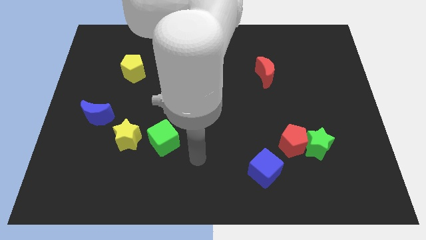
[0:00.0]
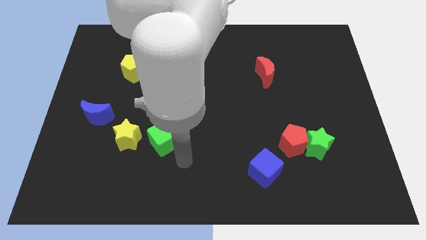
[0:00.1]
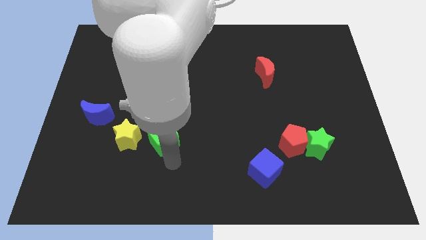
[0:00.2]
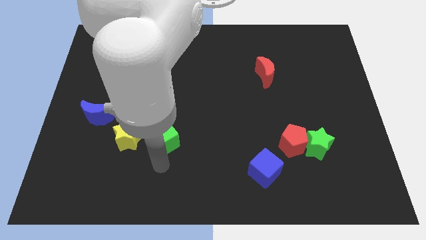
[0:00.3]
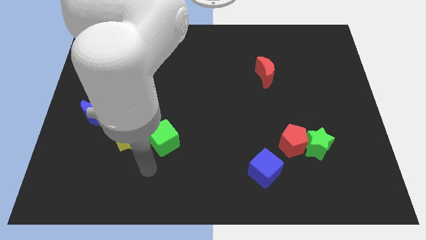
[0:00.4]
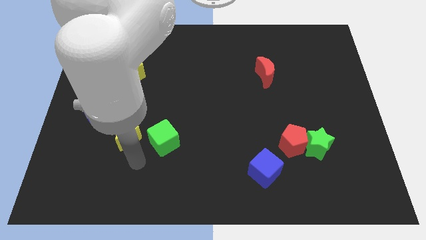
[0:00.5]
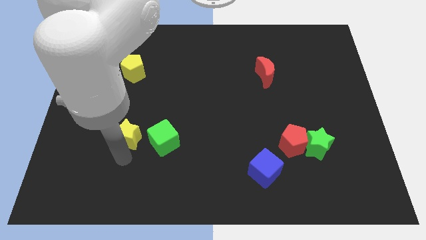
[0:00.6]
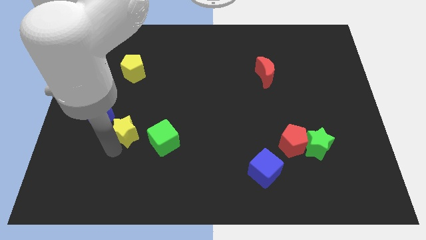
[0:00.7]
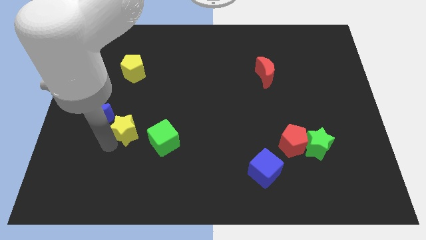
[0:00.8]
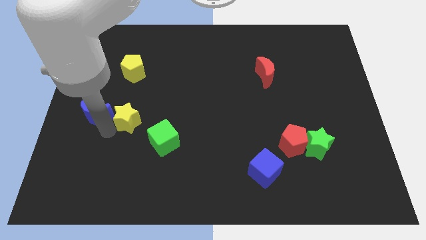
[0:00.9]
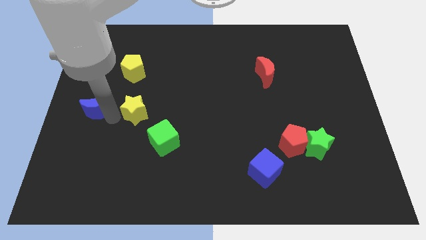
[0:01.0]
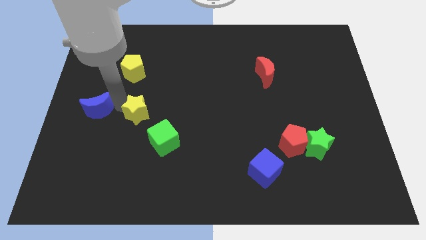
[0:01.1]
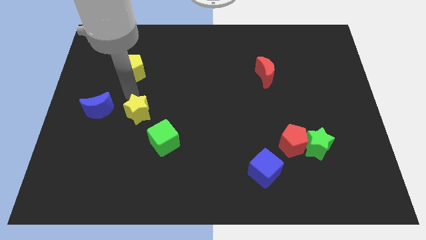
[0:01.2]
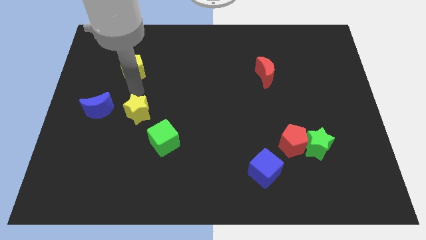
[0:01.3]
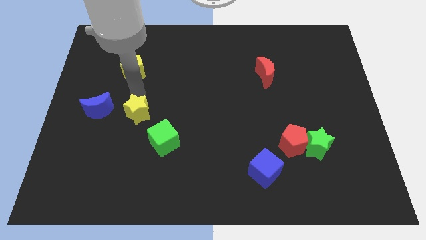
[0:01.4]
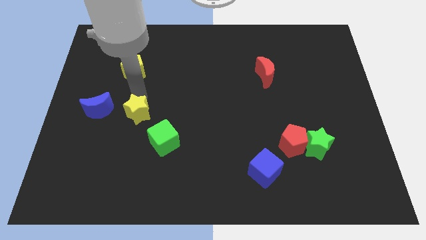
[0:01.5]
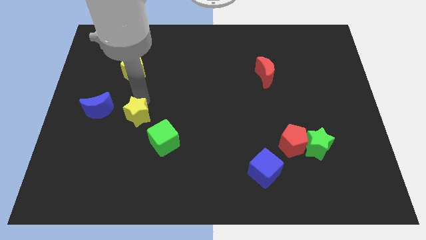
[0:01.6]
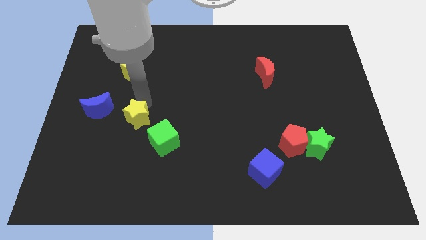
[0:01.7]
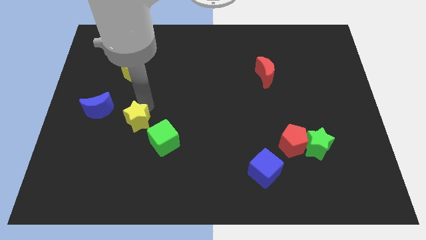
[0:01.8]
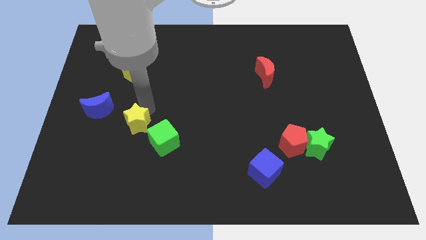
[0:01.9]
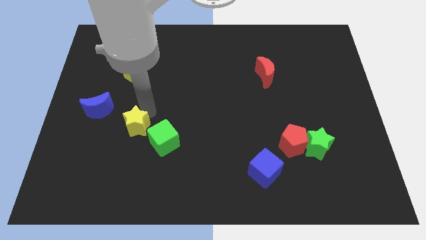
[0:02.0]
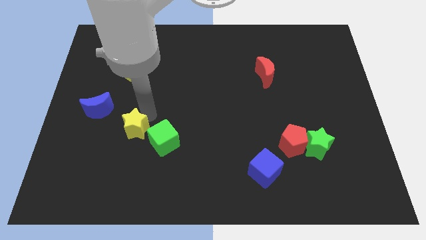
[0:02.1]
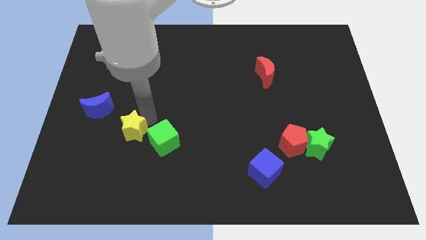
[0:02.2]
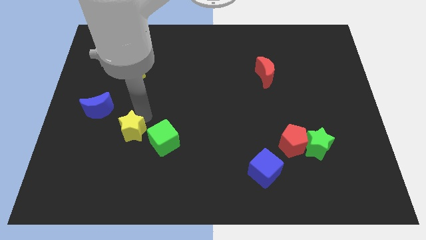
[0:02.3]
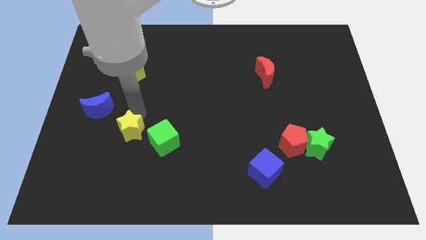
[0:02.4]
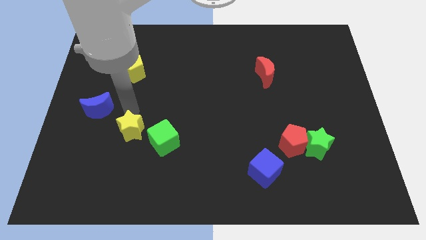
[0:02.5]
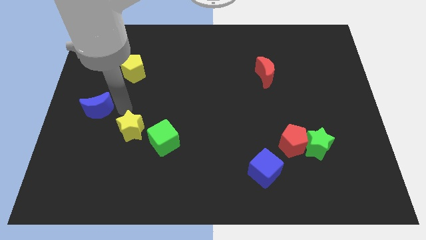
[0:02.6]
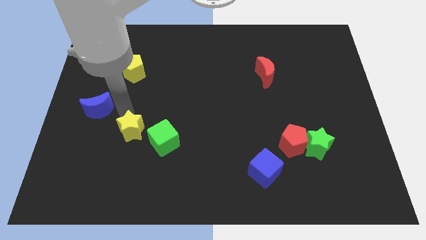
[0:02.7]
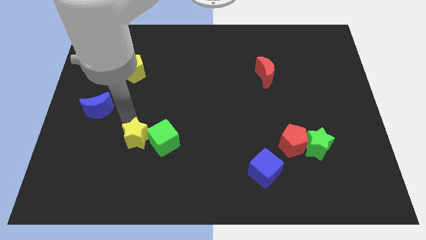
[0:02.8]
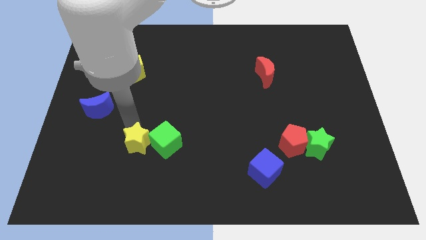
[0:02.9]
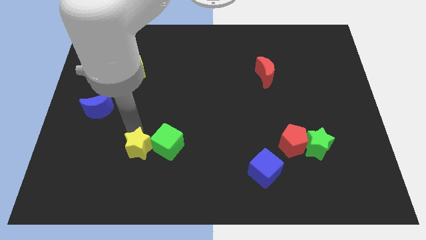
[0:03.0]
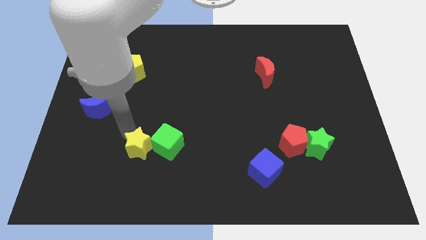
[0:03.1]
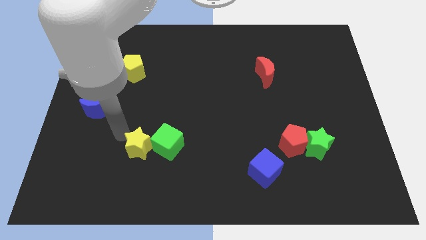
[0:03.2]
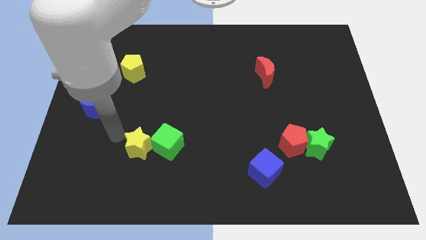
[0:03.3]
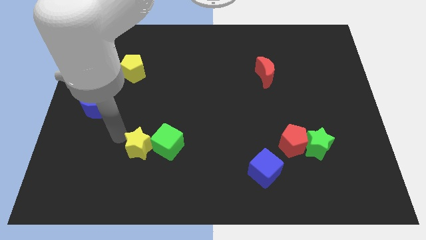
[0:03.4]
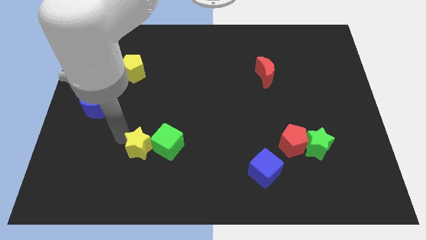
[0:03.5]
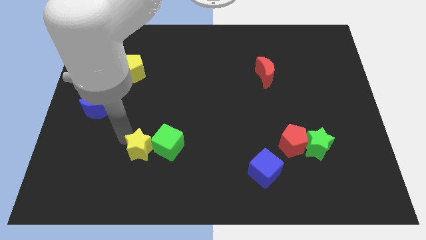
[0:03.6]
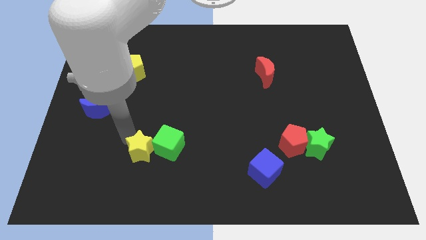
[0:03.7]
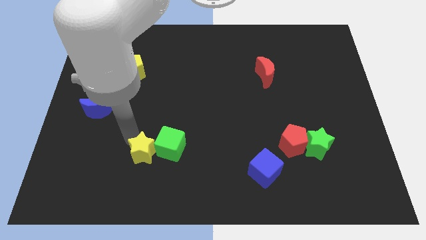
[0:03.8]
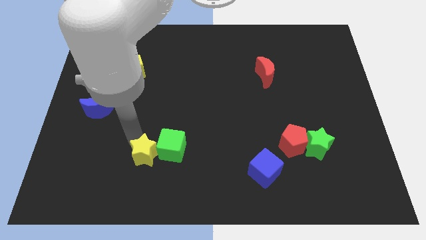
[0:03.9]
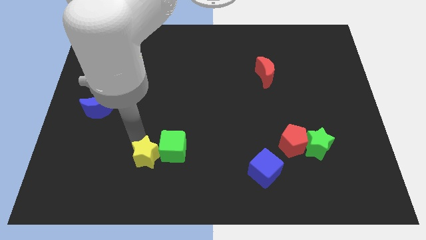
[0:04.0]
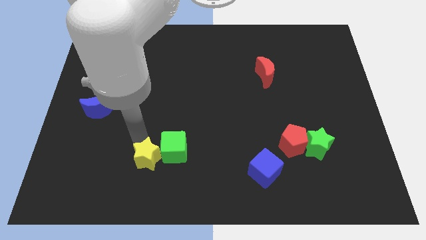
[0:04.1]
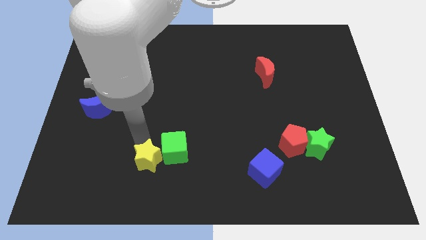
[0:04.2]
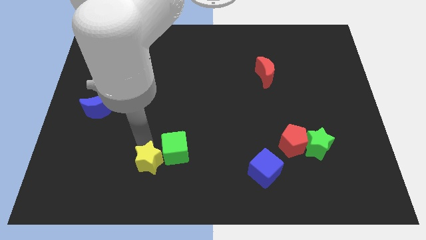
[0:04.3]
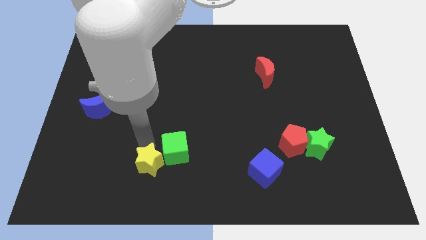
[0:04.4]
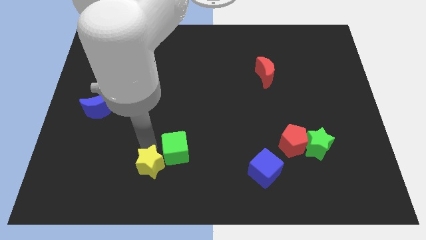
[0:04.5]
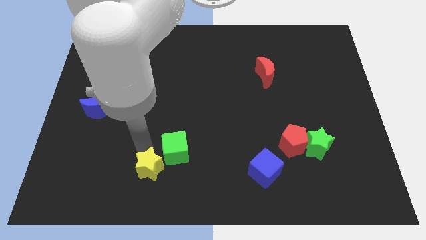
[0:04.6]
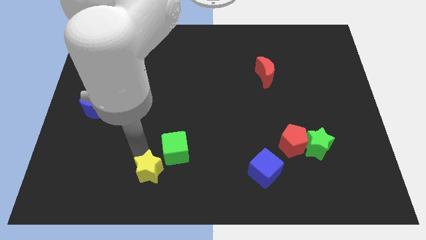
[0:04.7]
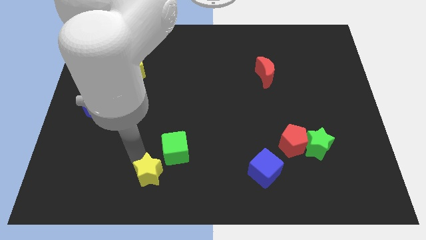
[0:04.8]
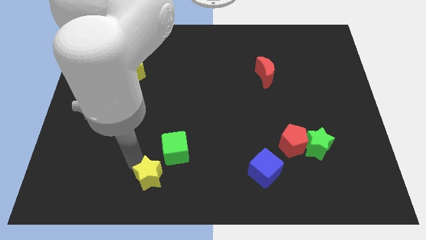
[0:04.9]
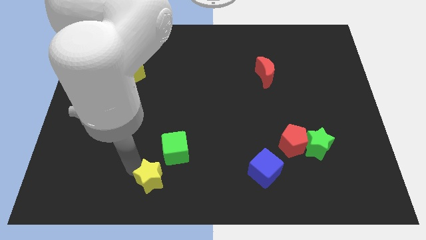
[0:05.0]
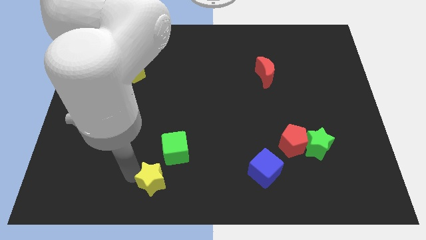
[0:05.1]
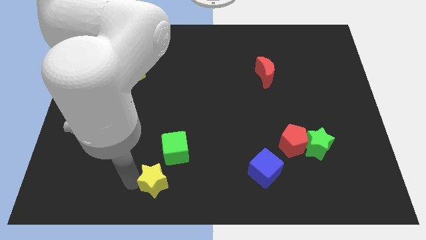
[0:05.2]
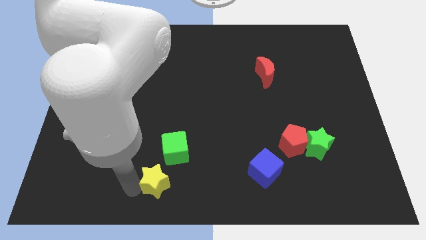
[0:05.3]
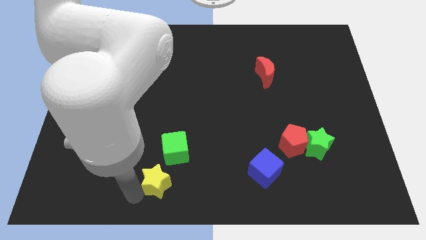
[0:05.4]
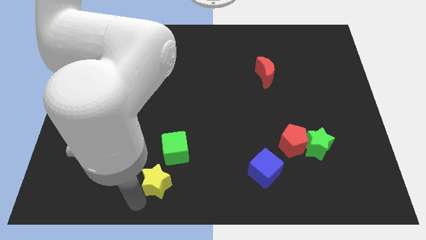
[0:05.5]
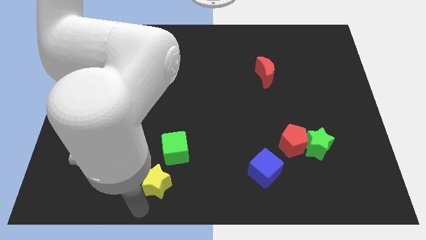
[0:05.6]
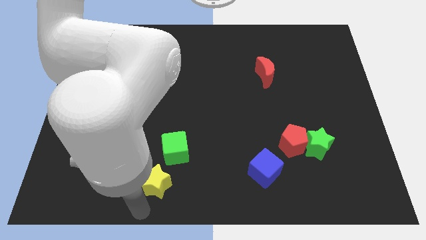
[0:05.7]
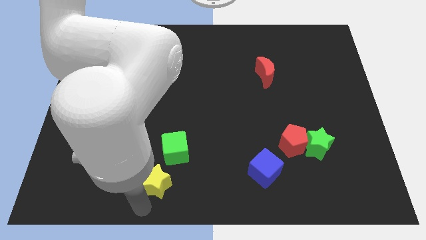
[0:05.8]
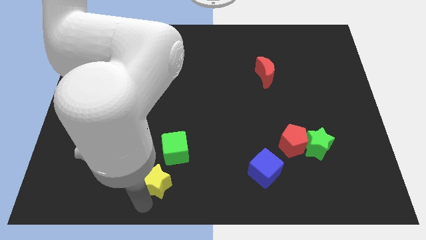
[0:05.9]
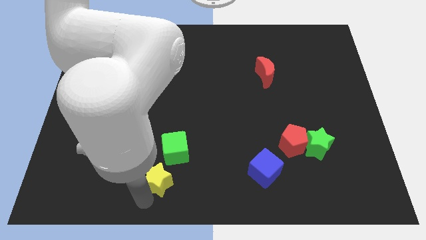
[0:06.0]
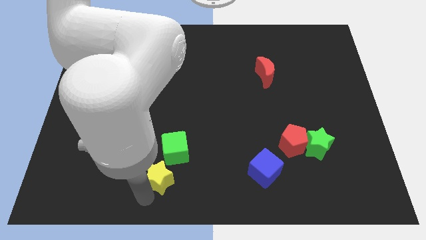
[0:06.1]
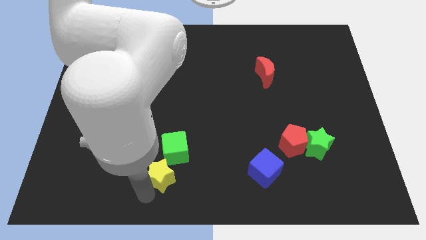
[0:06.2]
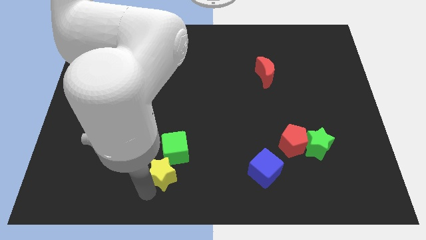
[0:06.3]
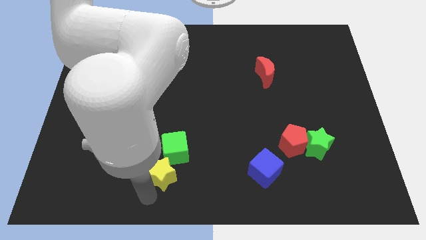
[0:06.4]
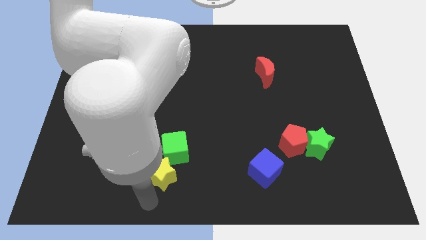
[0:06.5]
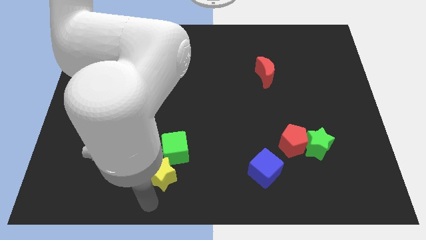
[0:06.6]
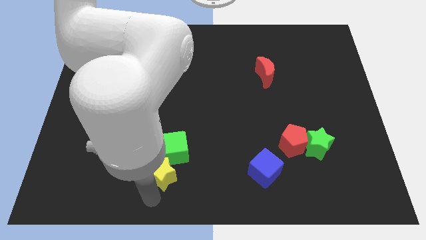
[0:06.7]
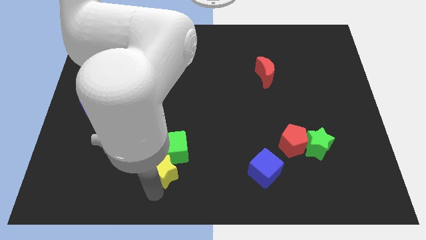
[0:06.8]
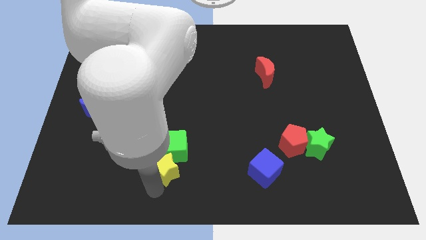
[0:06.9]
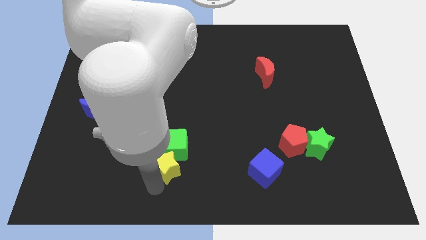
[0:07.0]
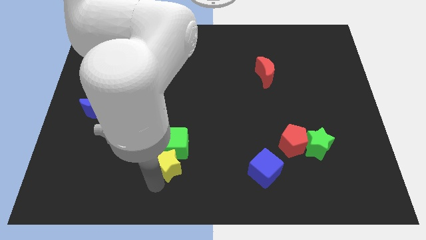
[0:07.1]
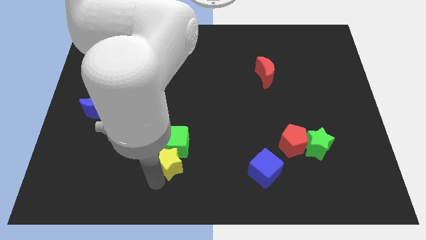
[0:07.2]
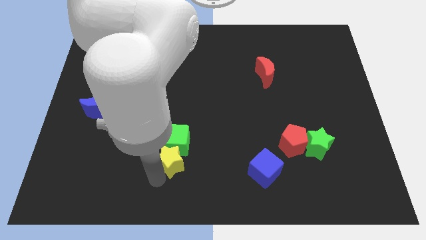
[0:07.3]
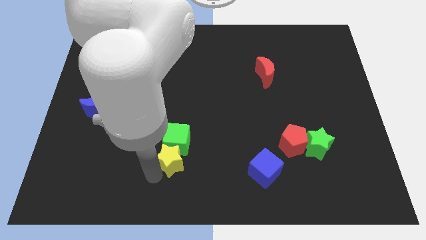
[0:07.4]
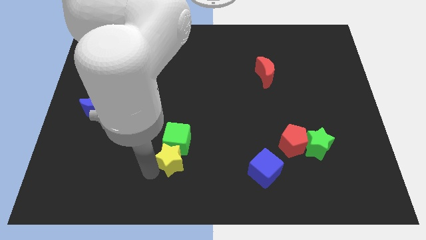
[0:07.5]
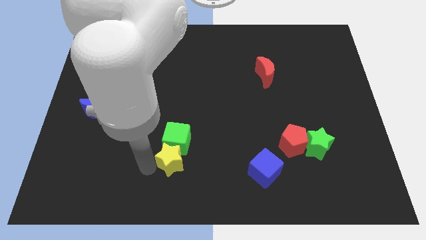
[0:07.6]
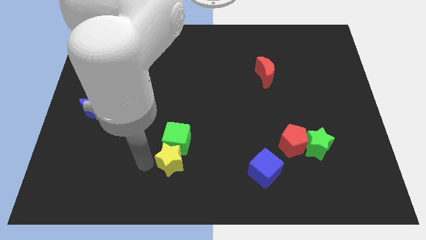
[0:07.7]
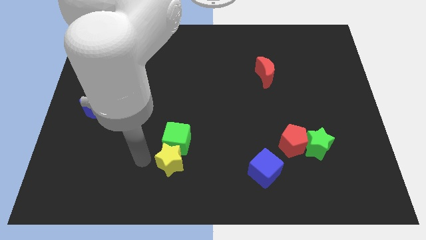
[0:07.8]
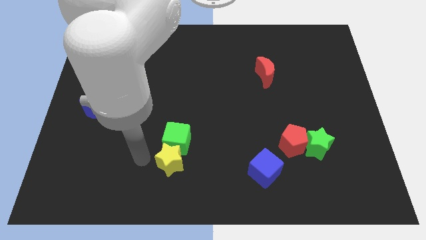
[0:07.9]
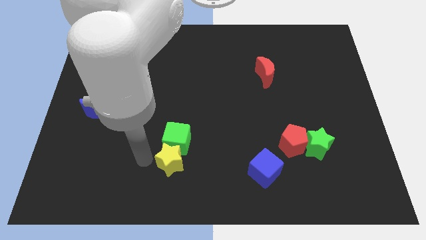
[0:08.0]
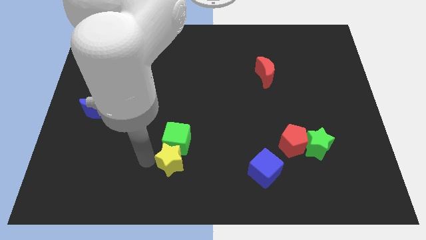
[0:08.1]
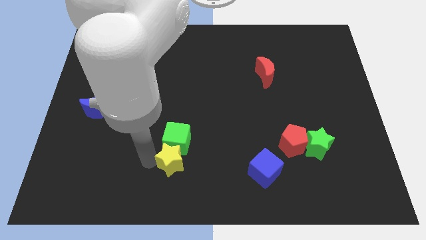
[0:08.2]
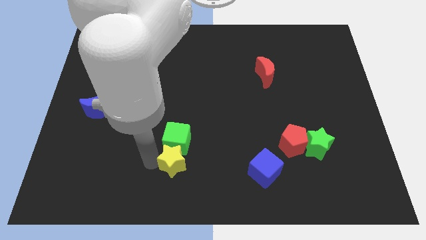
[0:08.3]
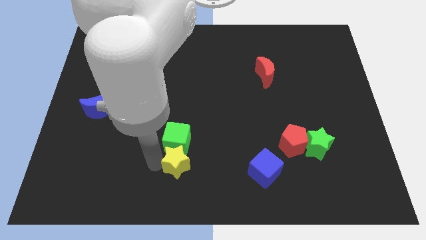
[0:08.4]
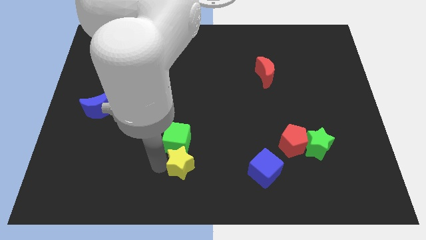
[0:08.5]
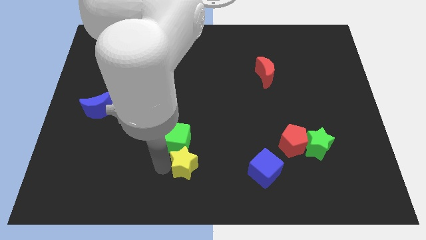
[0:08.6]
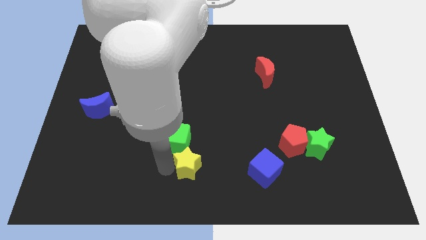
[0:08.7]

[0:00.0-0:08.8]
move the yellow star just left of the blue cube
